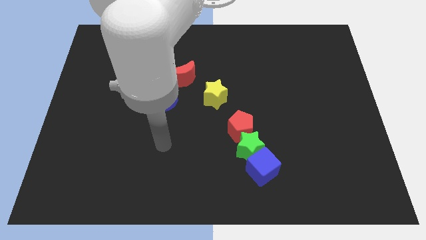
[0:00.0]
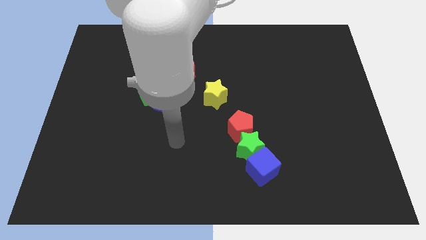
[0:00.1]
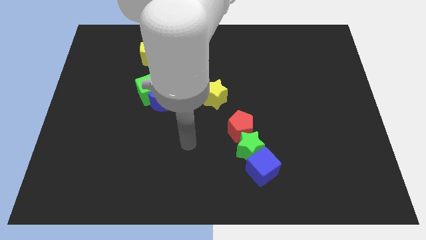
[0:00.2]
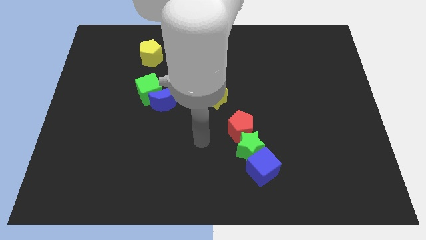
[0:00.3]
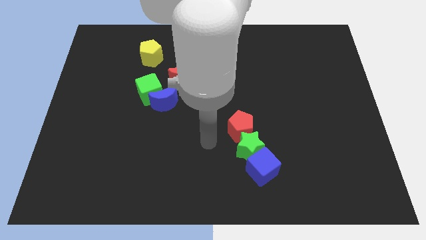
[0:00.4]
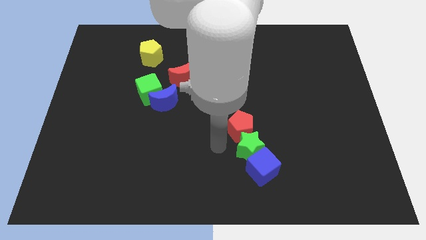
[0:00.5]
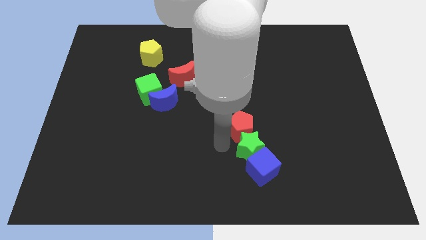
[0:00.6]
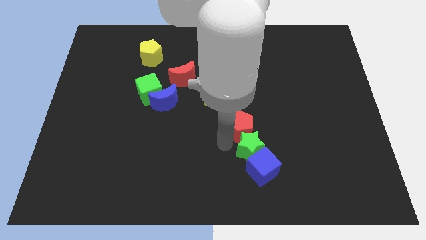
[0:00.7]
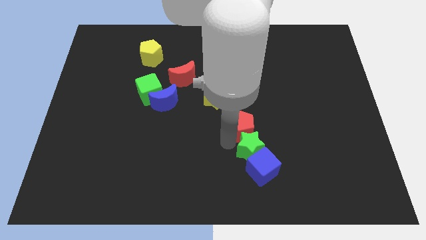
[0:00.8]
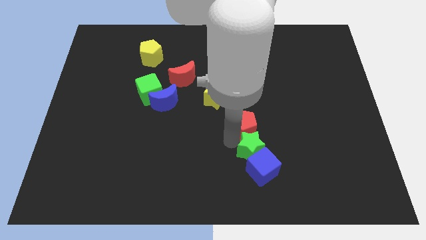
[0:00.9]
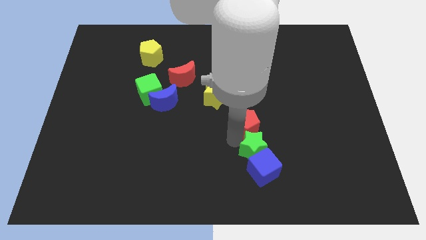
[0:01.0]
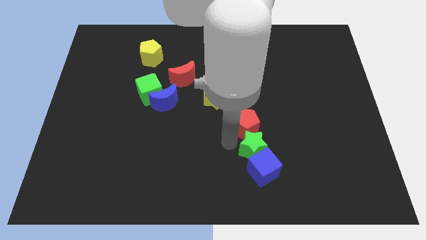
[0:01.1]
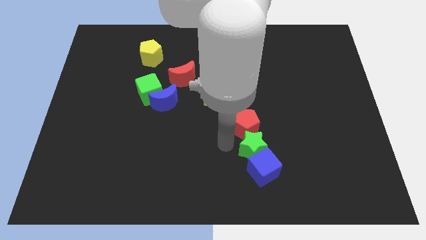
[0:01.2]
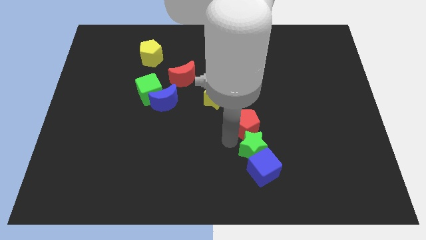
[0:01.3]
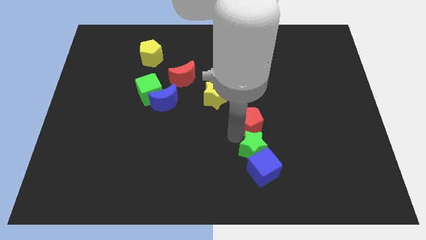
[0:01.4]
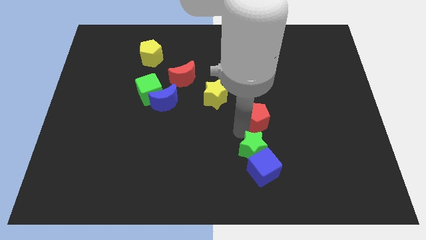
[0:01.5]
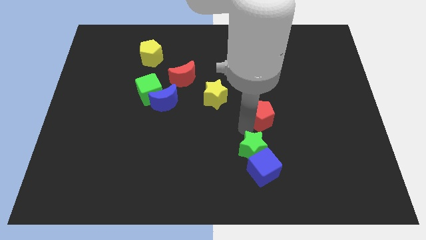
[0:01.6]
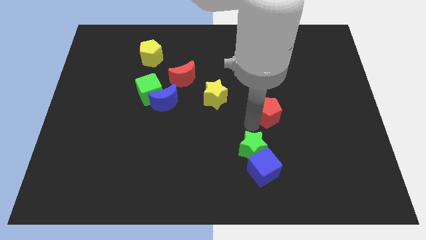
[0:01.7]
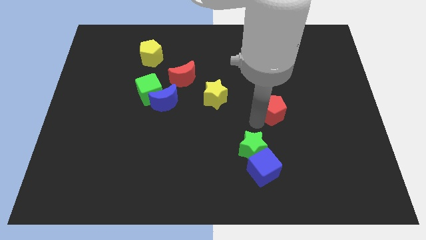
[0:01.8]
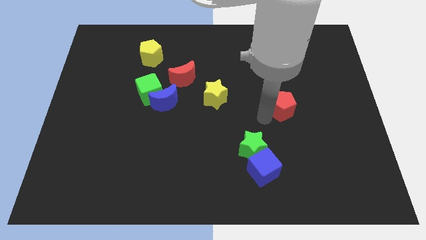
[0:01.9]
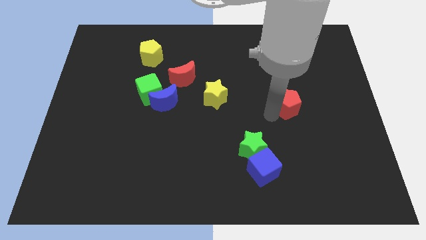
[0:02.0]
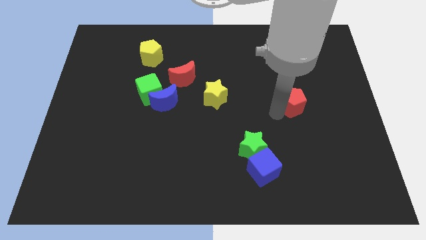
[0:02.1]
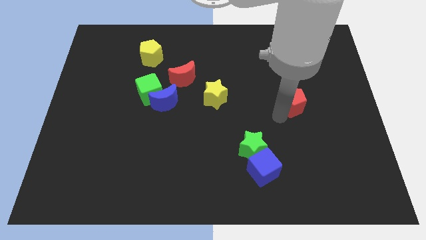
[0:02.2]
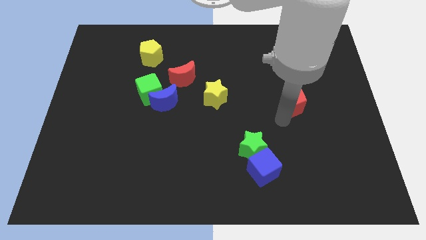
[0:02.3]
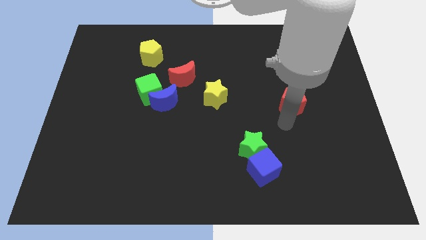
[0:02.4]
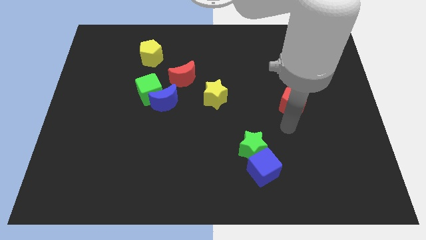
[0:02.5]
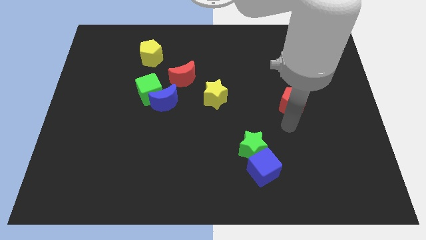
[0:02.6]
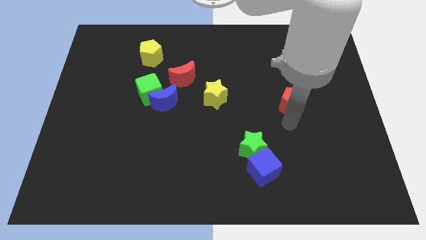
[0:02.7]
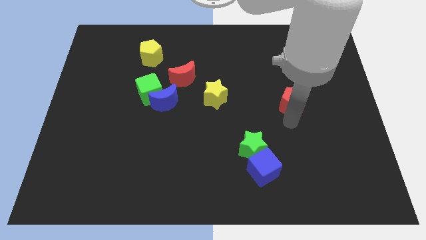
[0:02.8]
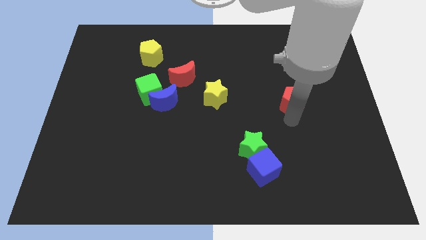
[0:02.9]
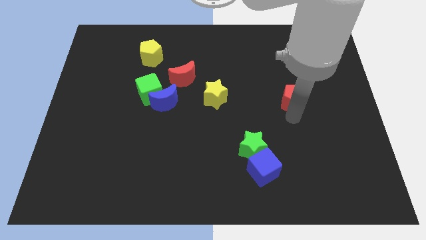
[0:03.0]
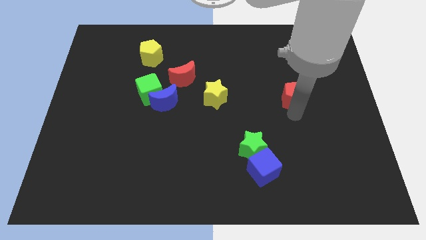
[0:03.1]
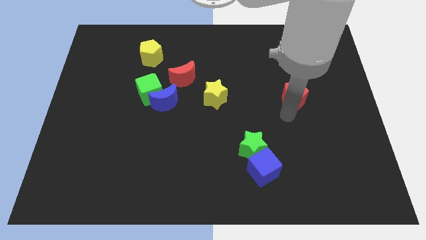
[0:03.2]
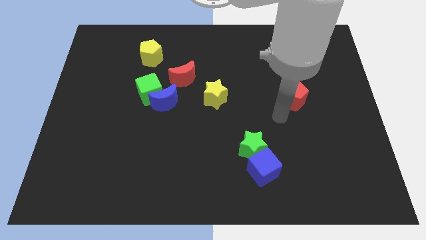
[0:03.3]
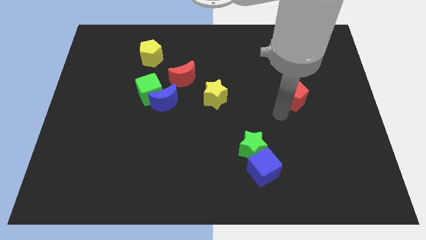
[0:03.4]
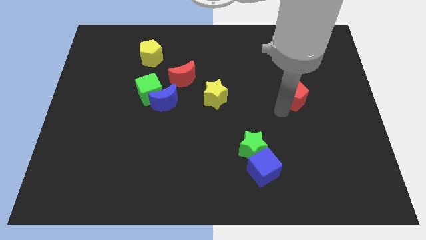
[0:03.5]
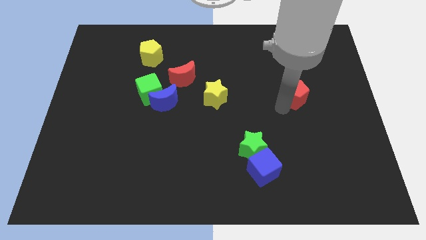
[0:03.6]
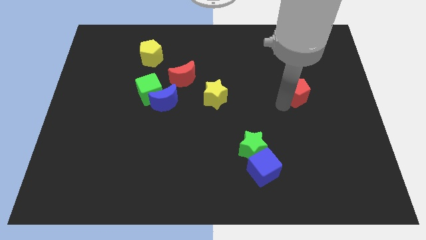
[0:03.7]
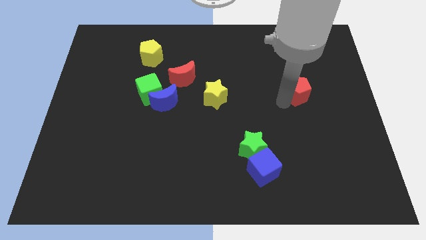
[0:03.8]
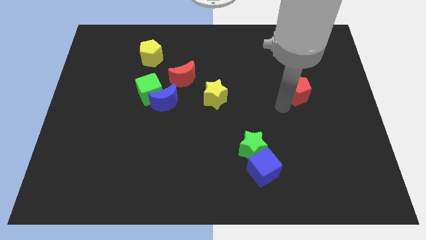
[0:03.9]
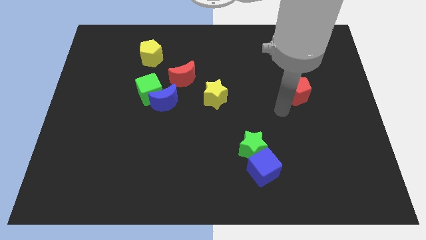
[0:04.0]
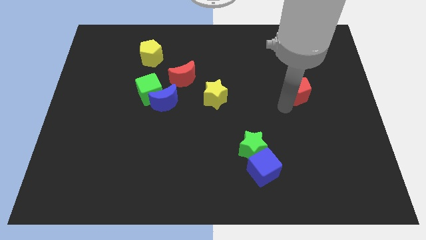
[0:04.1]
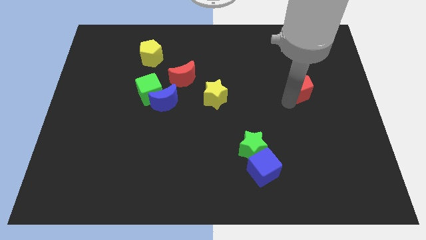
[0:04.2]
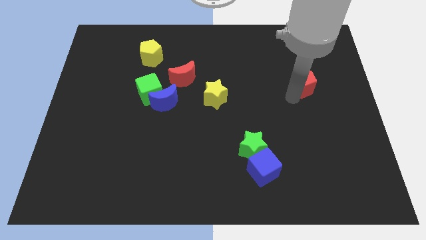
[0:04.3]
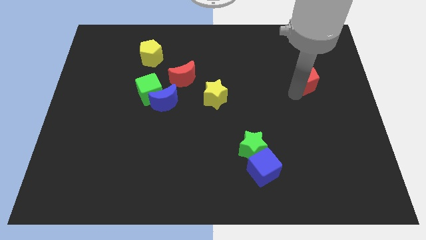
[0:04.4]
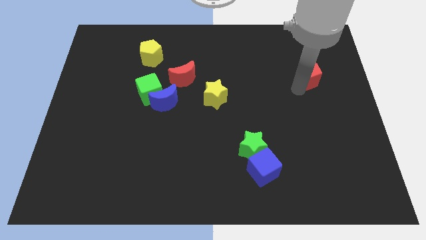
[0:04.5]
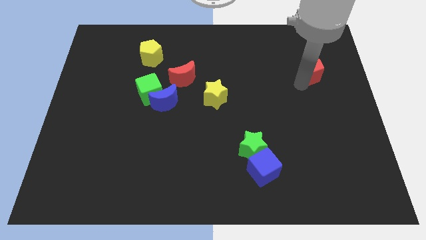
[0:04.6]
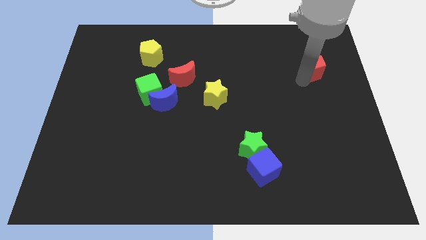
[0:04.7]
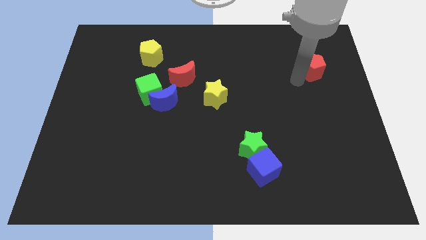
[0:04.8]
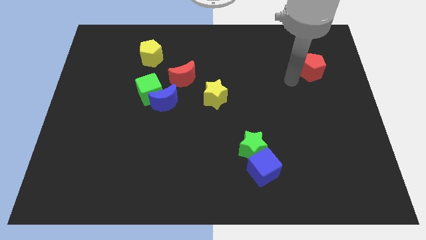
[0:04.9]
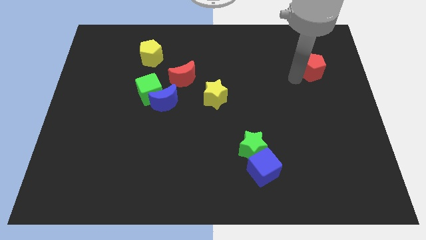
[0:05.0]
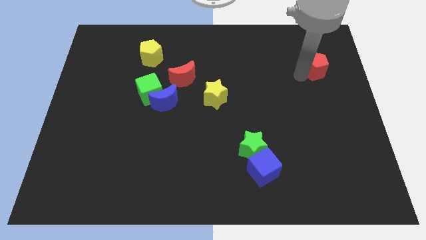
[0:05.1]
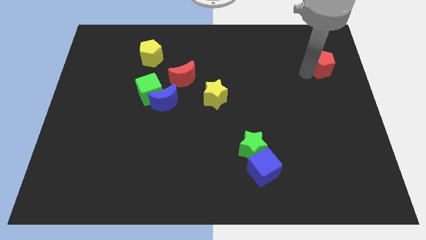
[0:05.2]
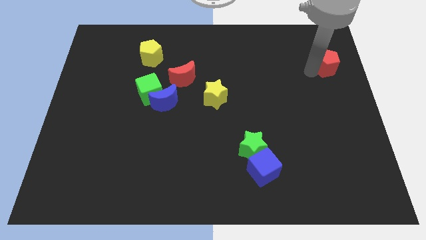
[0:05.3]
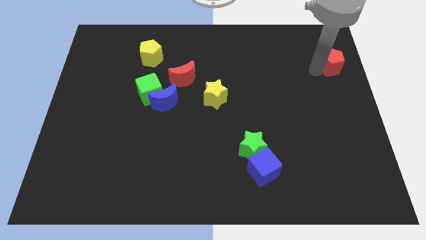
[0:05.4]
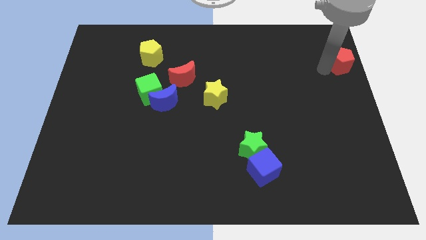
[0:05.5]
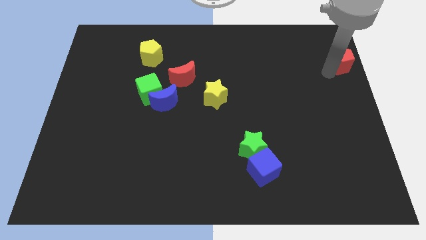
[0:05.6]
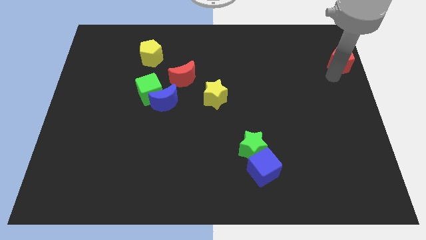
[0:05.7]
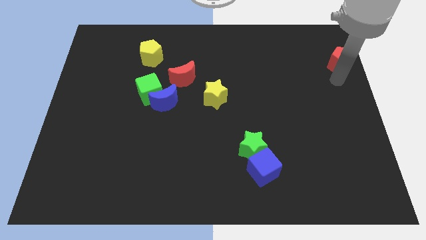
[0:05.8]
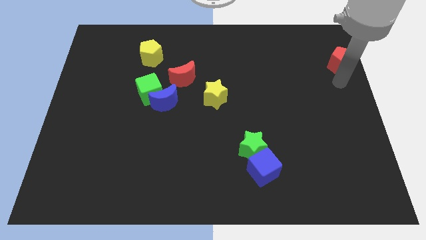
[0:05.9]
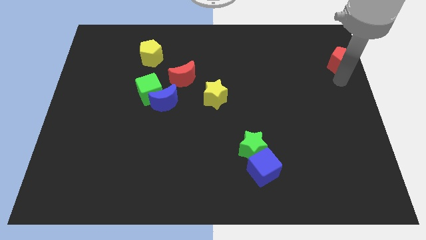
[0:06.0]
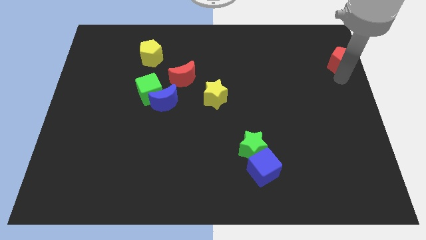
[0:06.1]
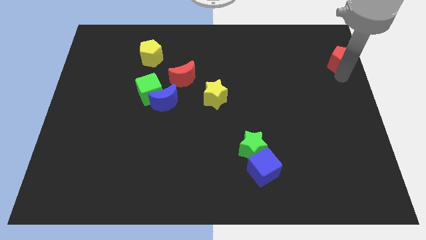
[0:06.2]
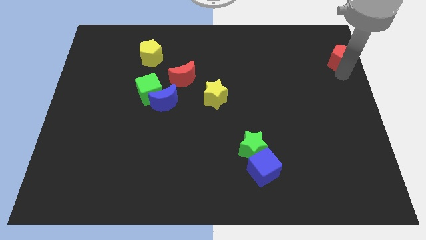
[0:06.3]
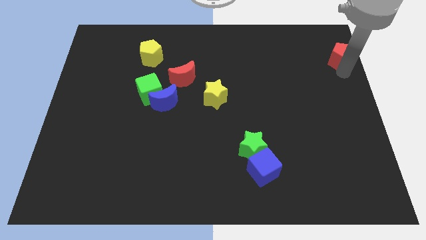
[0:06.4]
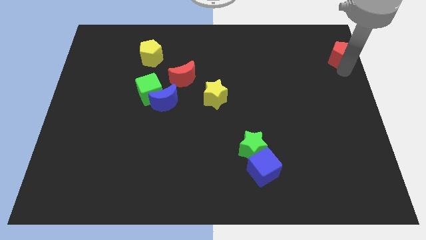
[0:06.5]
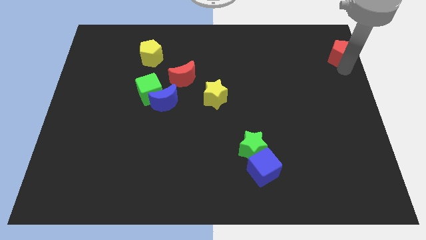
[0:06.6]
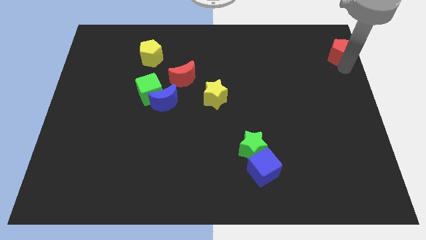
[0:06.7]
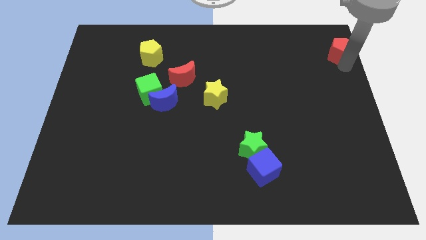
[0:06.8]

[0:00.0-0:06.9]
push the red pentagon to the upper right corner

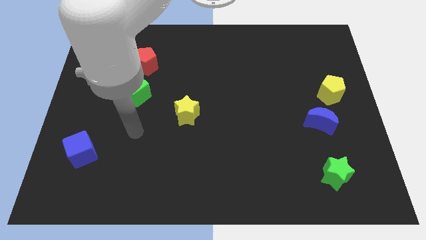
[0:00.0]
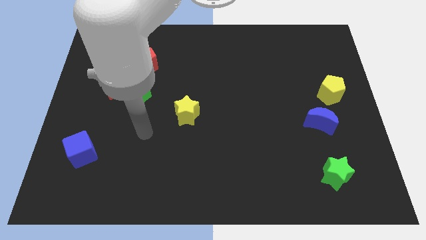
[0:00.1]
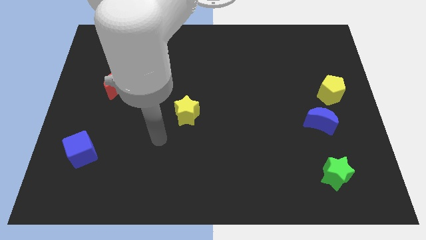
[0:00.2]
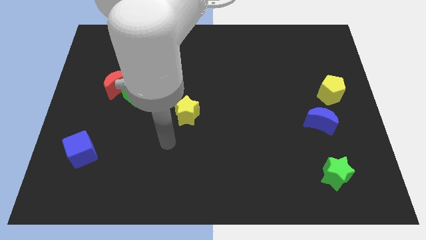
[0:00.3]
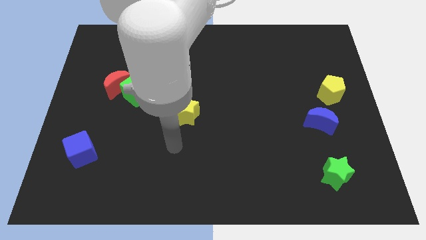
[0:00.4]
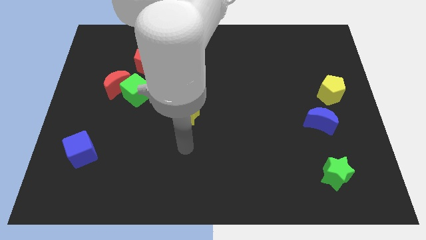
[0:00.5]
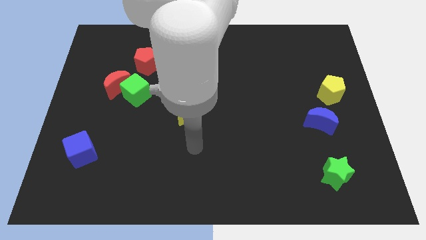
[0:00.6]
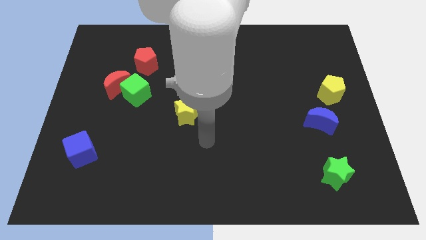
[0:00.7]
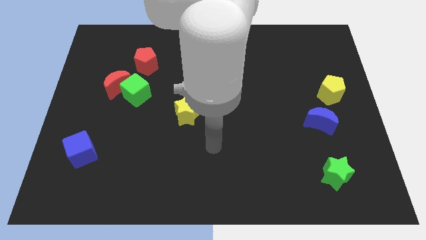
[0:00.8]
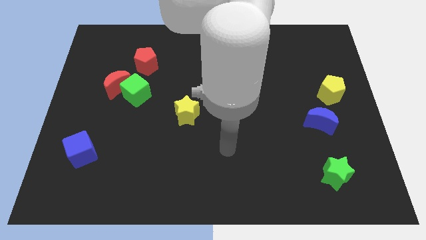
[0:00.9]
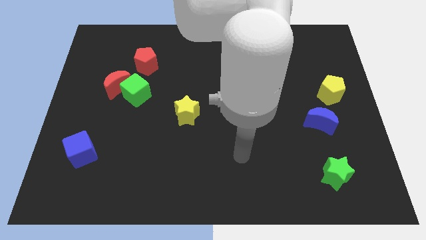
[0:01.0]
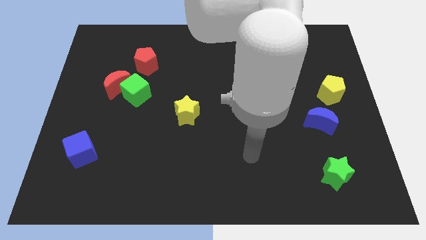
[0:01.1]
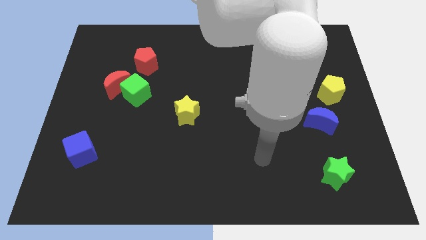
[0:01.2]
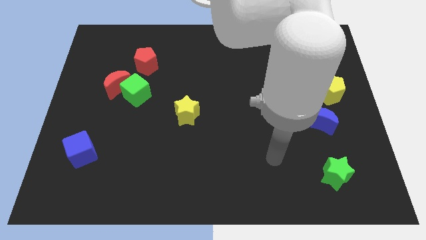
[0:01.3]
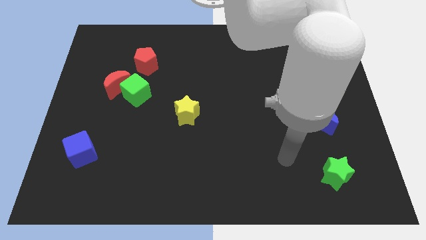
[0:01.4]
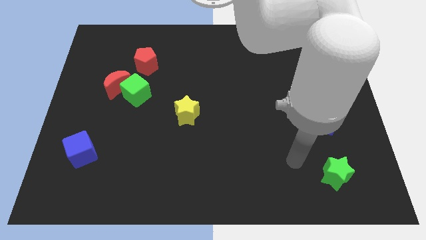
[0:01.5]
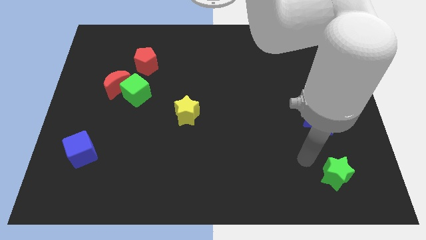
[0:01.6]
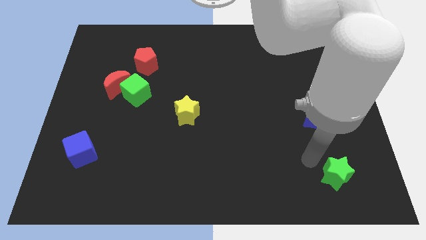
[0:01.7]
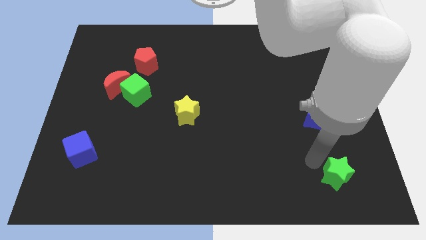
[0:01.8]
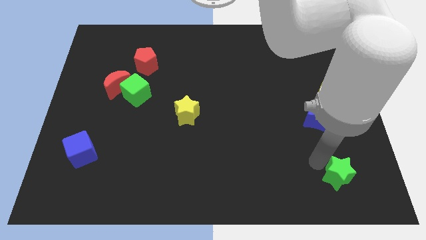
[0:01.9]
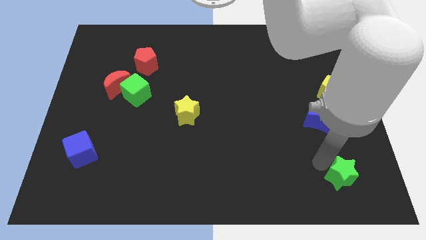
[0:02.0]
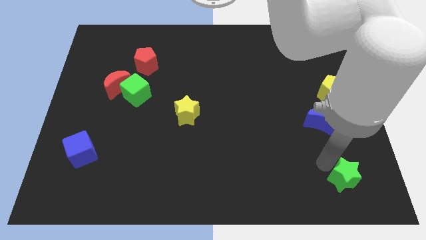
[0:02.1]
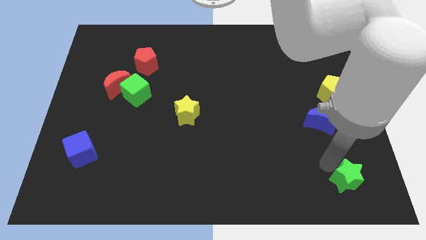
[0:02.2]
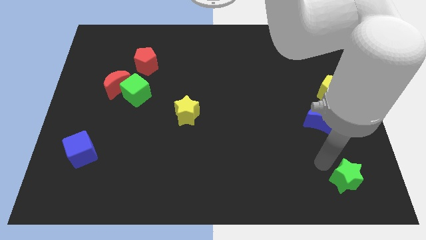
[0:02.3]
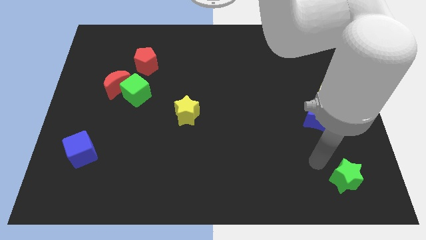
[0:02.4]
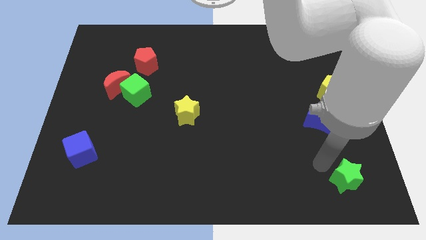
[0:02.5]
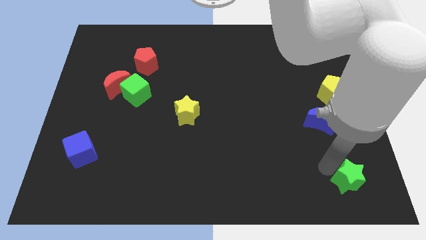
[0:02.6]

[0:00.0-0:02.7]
push the green star to the bottom right
